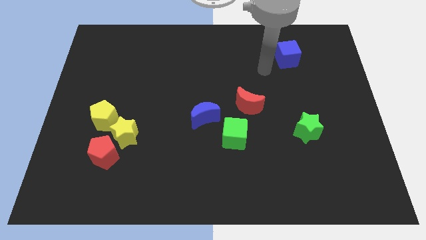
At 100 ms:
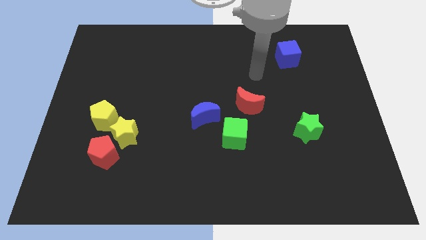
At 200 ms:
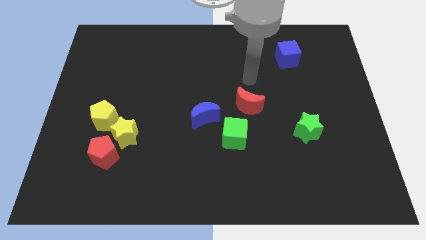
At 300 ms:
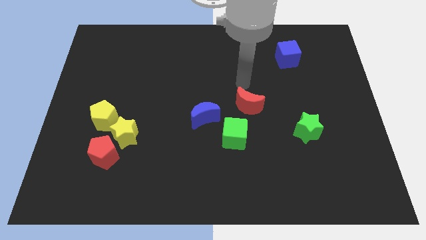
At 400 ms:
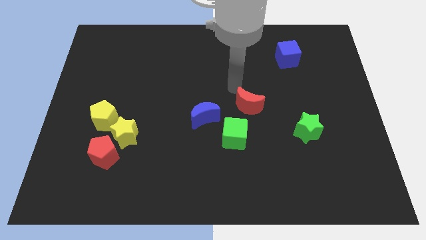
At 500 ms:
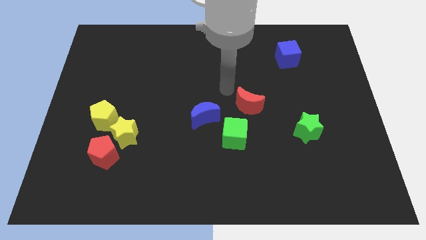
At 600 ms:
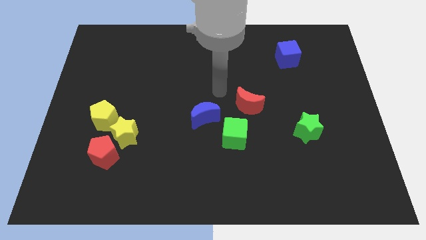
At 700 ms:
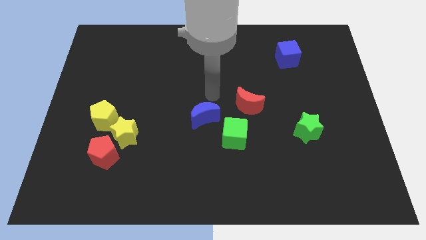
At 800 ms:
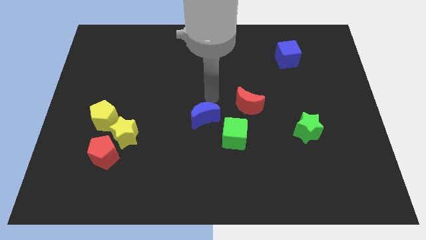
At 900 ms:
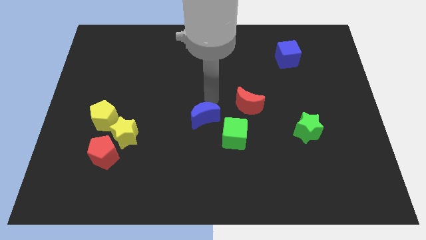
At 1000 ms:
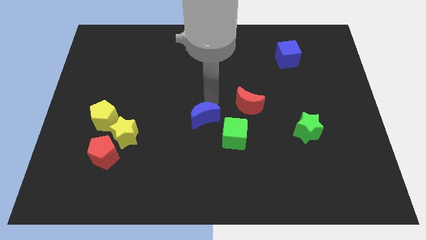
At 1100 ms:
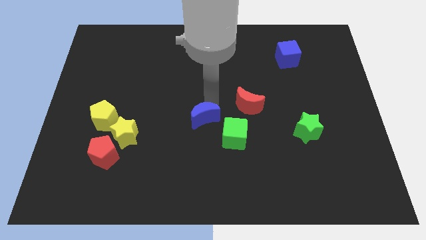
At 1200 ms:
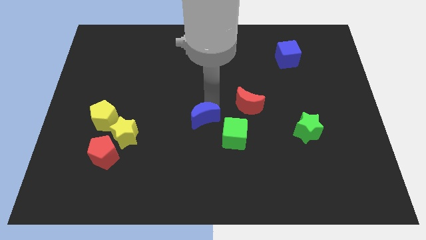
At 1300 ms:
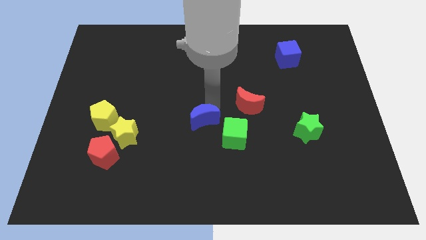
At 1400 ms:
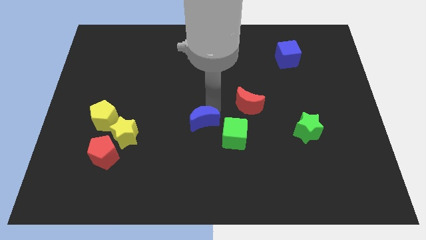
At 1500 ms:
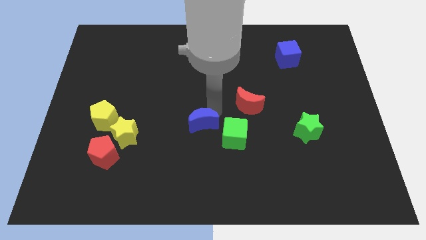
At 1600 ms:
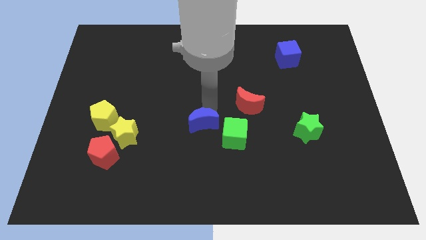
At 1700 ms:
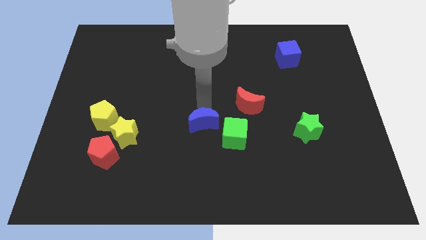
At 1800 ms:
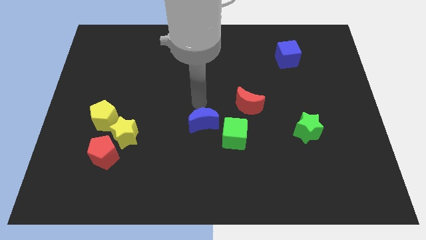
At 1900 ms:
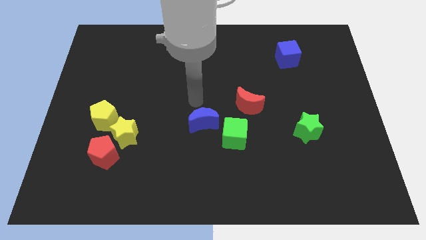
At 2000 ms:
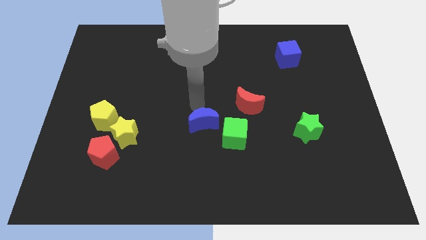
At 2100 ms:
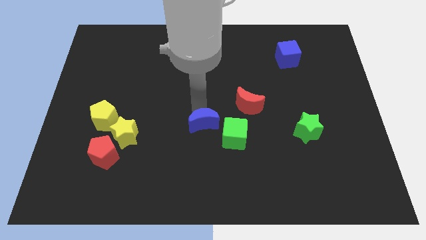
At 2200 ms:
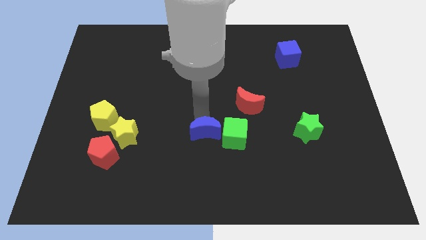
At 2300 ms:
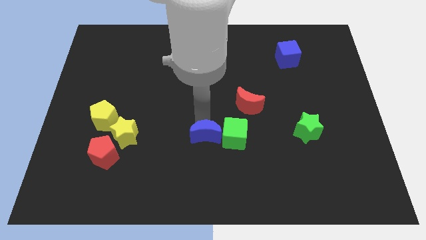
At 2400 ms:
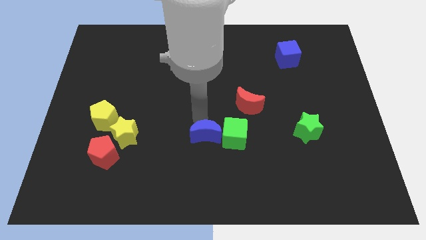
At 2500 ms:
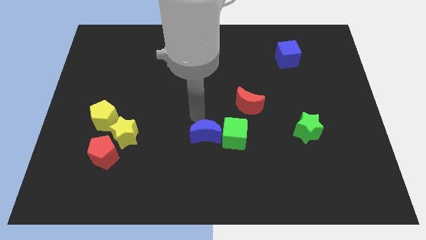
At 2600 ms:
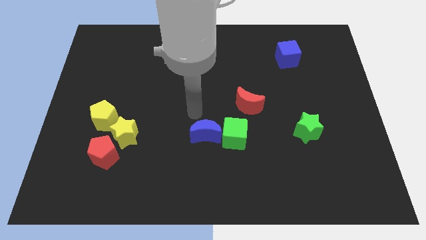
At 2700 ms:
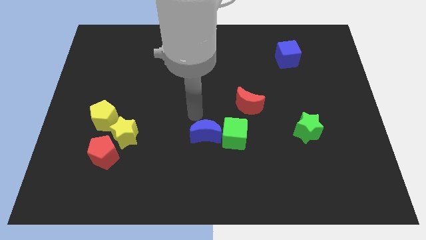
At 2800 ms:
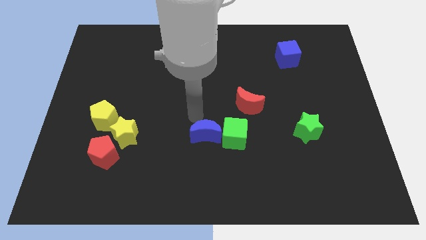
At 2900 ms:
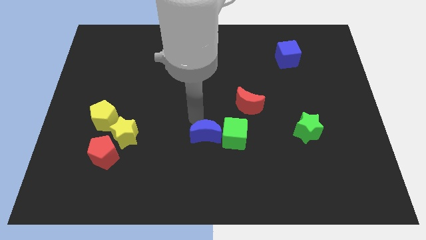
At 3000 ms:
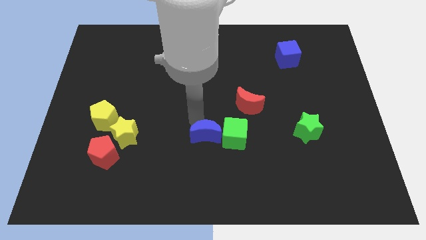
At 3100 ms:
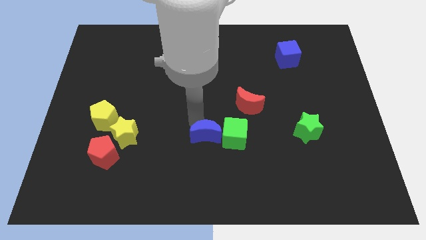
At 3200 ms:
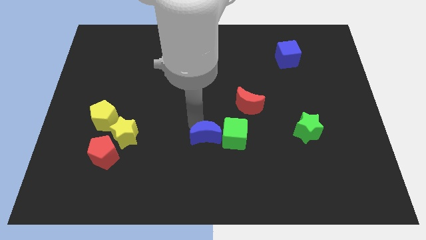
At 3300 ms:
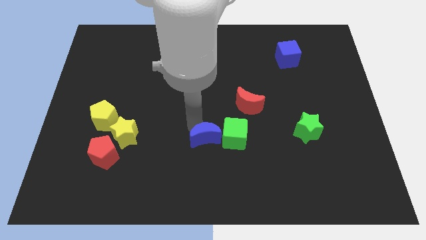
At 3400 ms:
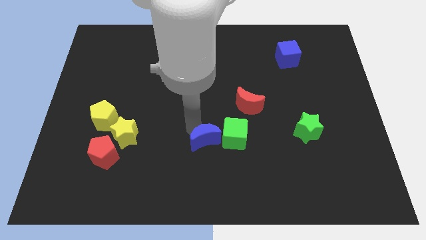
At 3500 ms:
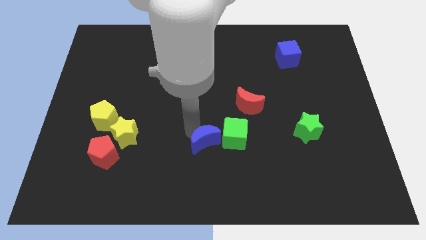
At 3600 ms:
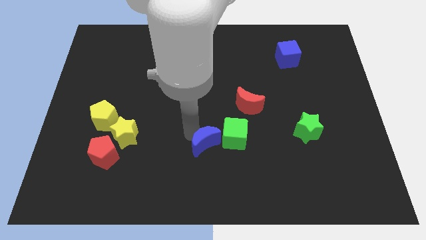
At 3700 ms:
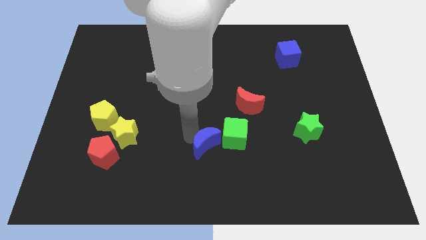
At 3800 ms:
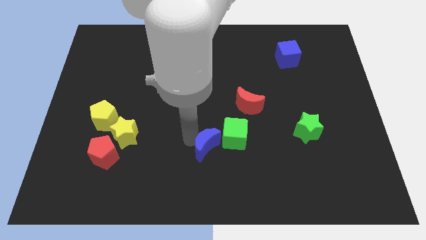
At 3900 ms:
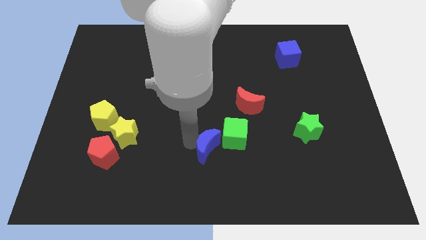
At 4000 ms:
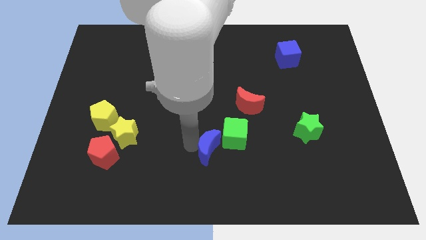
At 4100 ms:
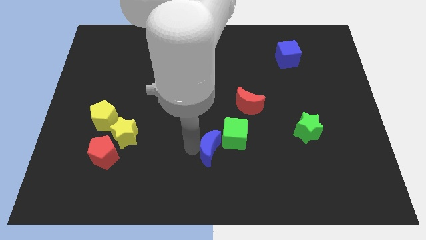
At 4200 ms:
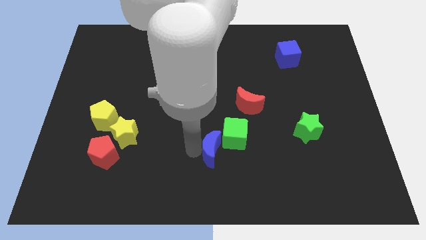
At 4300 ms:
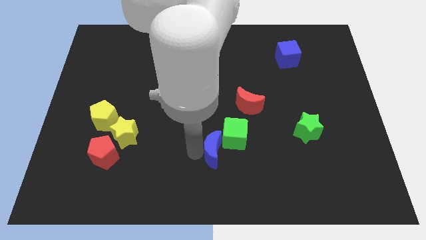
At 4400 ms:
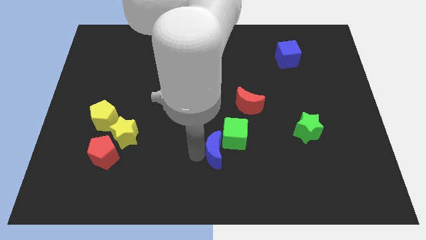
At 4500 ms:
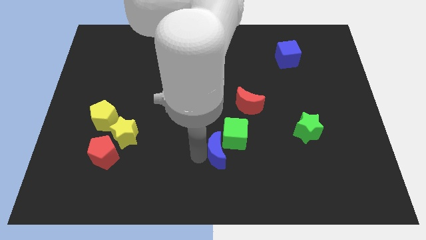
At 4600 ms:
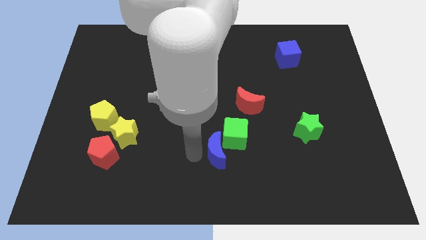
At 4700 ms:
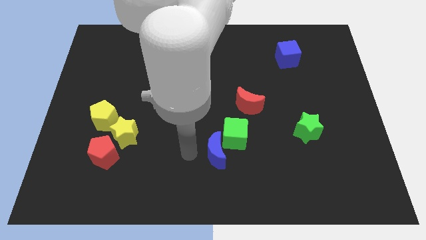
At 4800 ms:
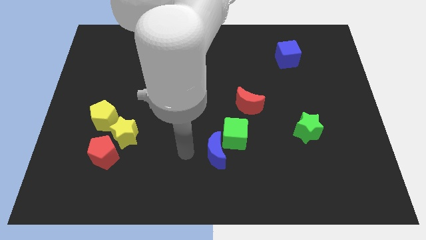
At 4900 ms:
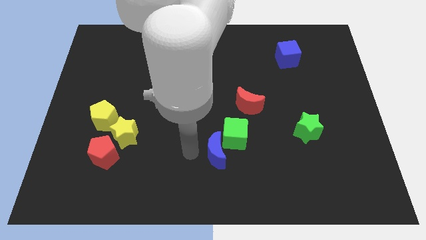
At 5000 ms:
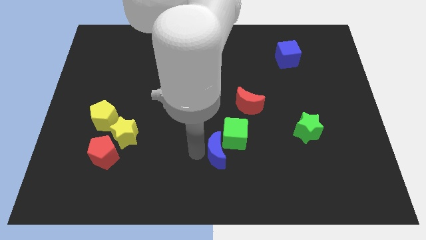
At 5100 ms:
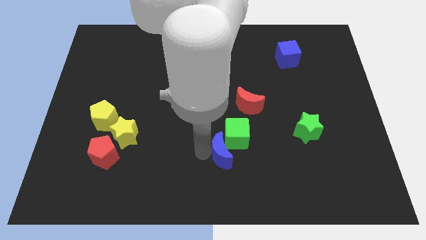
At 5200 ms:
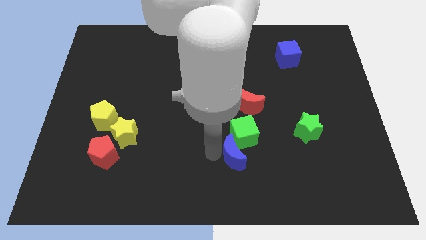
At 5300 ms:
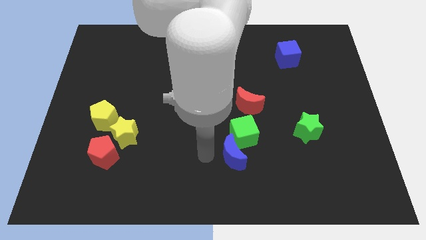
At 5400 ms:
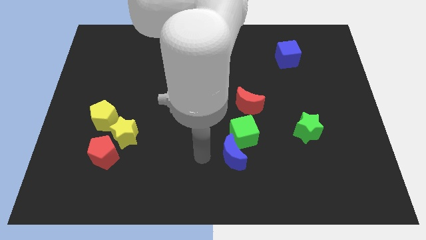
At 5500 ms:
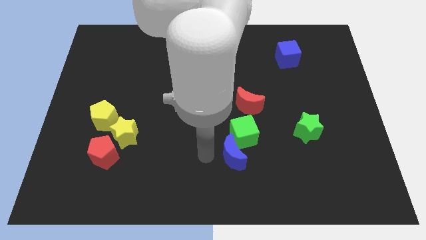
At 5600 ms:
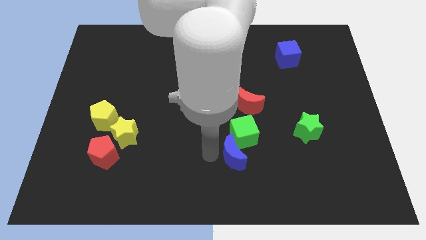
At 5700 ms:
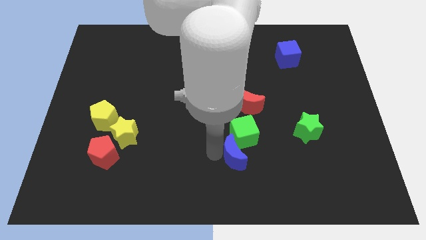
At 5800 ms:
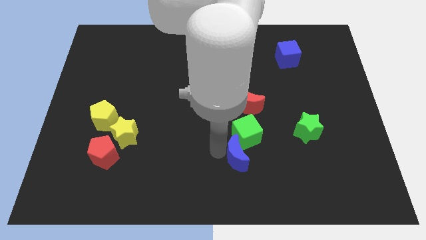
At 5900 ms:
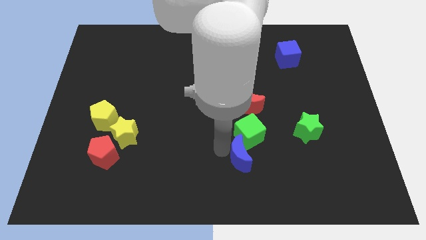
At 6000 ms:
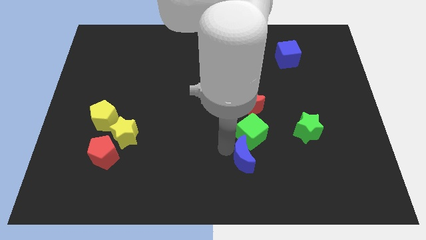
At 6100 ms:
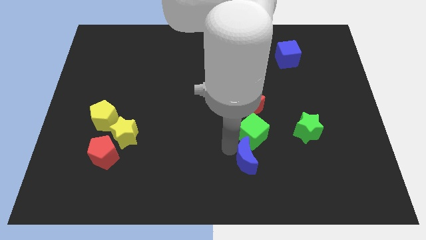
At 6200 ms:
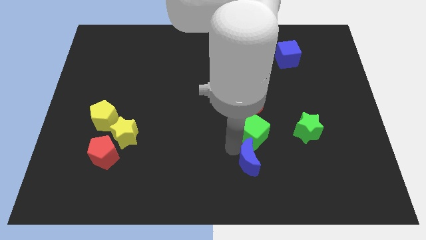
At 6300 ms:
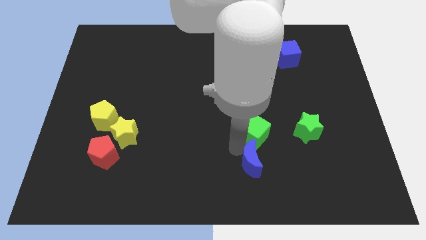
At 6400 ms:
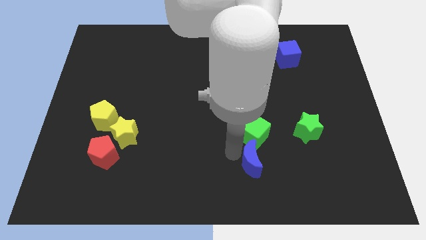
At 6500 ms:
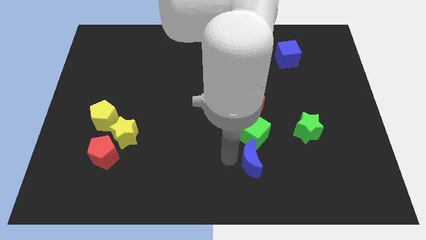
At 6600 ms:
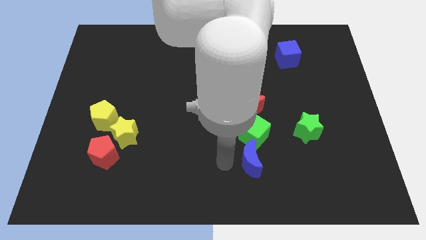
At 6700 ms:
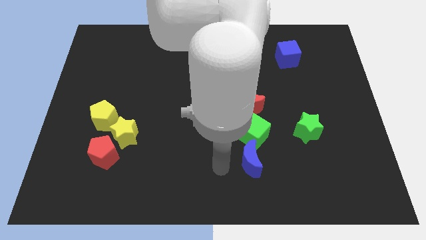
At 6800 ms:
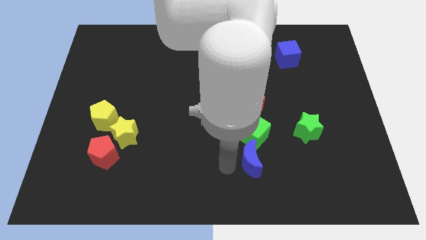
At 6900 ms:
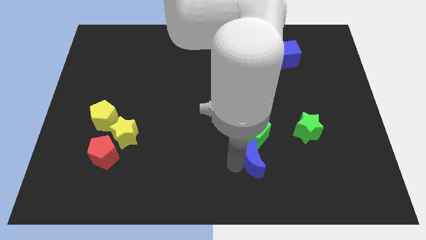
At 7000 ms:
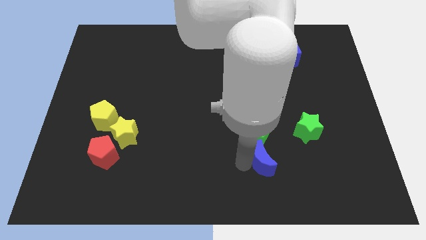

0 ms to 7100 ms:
put the blue moon to the bottom right side of the green cube
